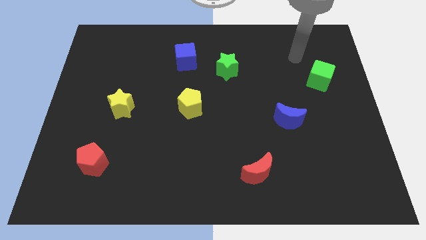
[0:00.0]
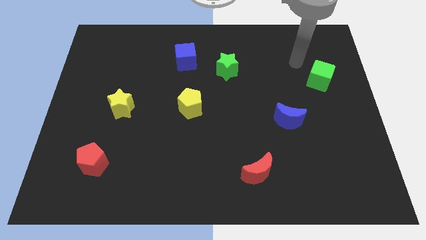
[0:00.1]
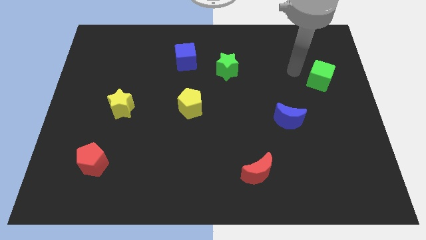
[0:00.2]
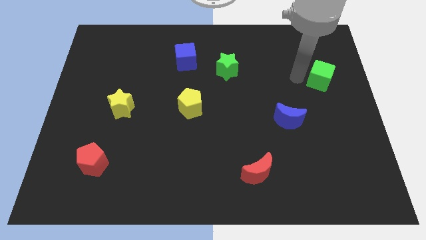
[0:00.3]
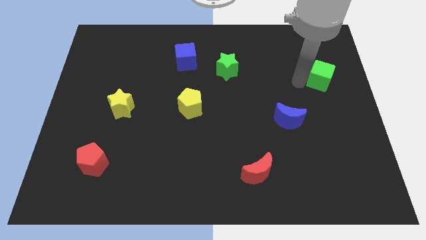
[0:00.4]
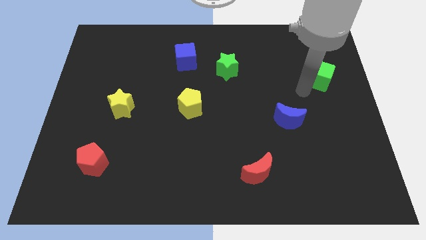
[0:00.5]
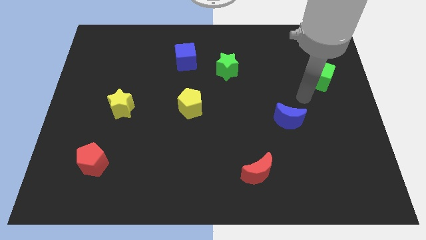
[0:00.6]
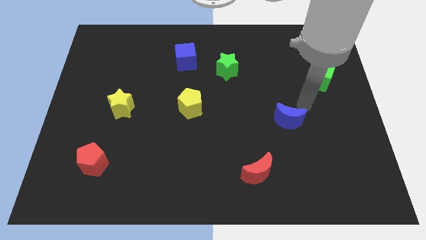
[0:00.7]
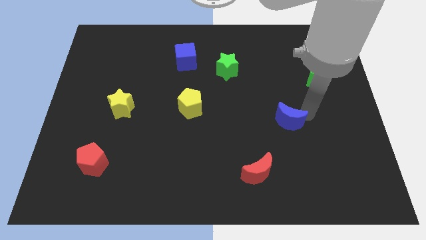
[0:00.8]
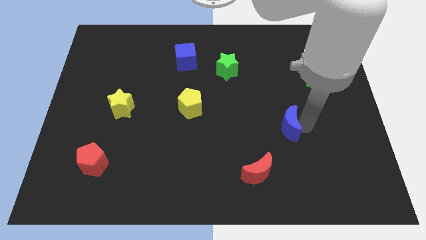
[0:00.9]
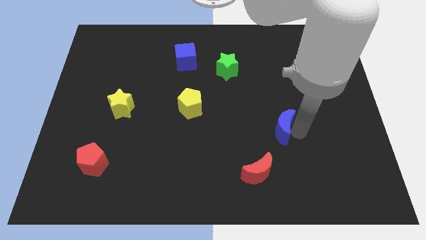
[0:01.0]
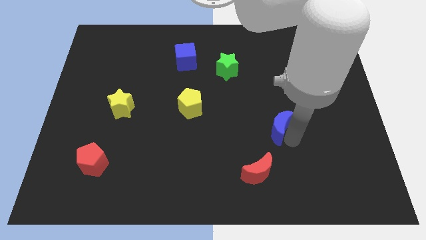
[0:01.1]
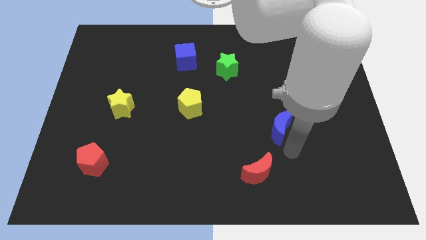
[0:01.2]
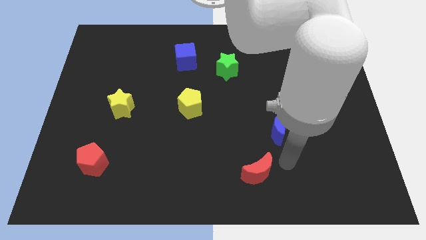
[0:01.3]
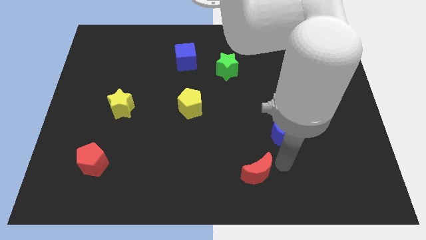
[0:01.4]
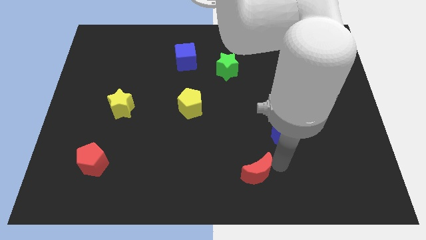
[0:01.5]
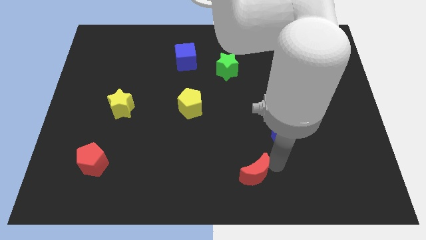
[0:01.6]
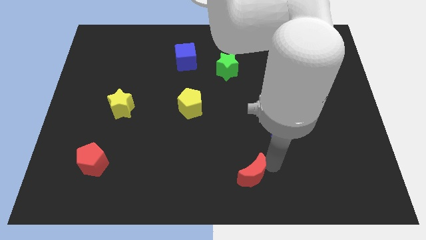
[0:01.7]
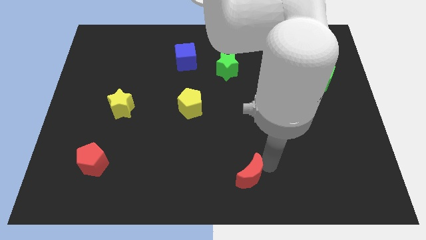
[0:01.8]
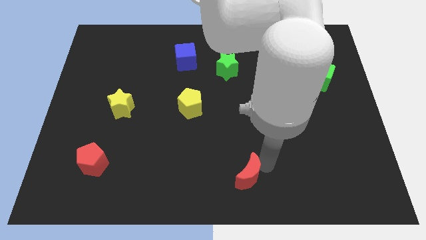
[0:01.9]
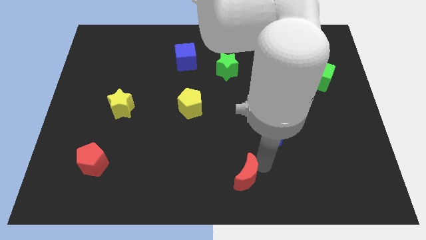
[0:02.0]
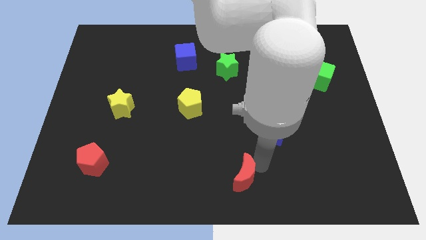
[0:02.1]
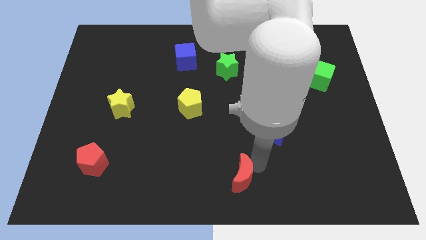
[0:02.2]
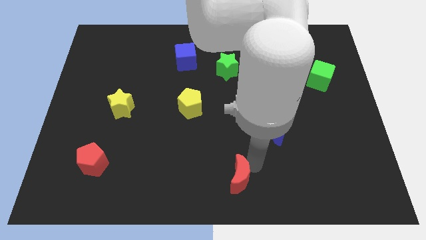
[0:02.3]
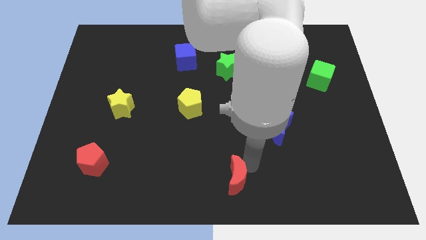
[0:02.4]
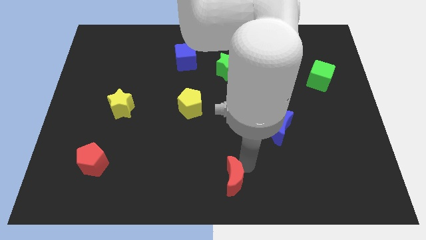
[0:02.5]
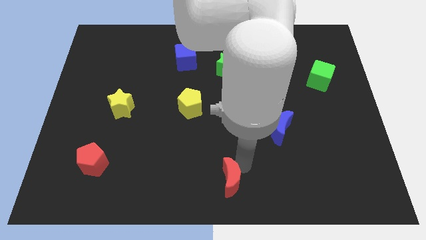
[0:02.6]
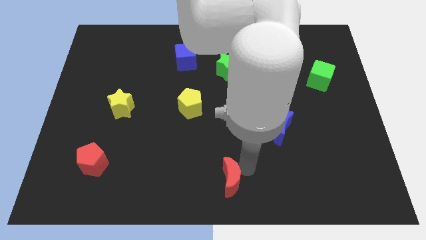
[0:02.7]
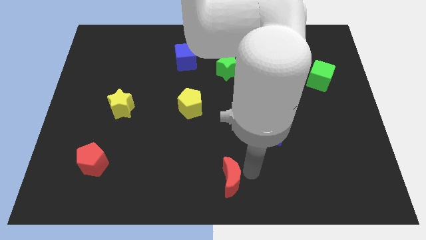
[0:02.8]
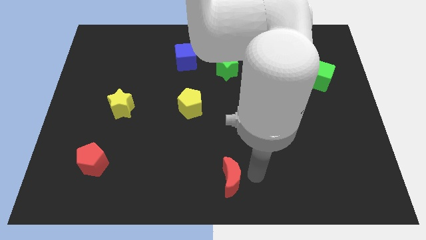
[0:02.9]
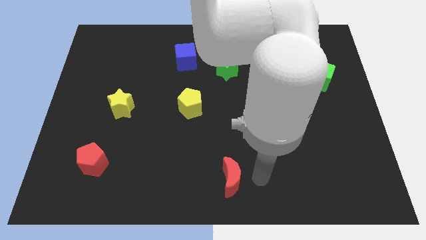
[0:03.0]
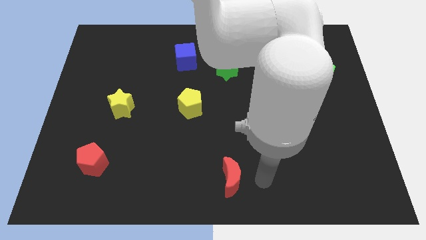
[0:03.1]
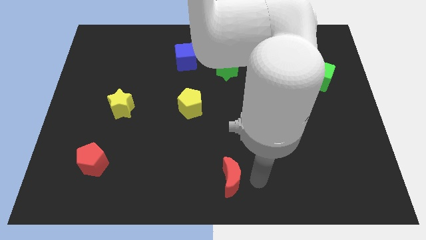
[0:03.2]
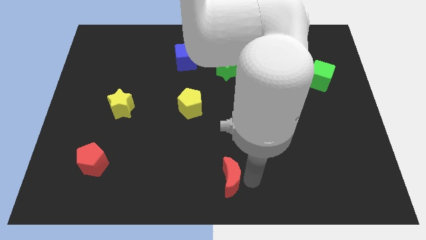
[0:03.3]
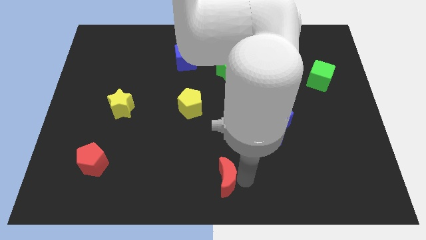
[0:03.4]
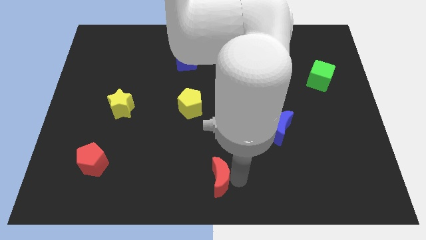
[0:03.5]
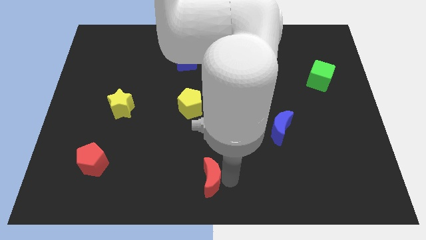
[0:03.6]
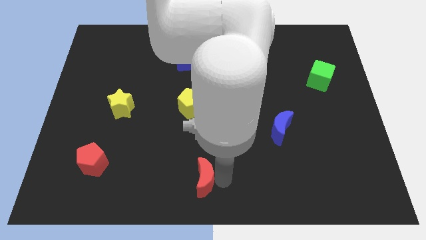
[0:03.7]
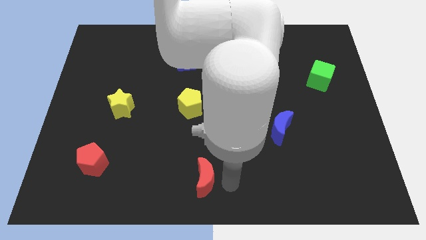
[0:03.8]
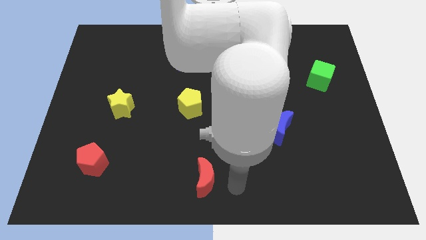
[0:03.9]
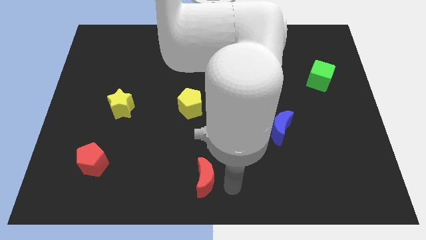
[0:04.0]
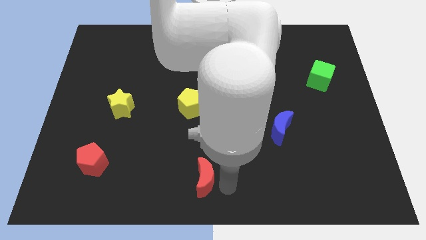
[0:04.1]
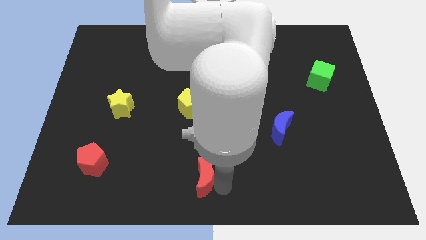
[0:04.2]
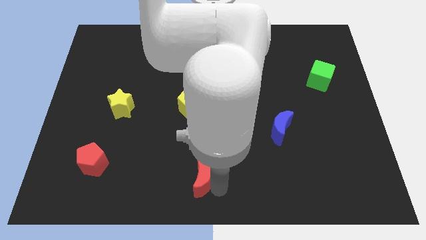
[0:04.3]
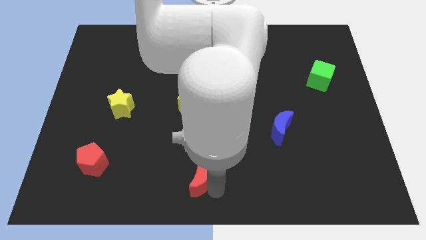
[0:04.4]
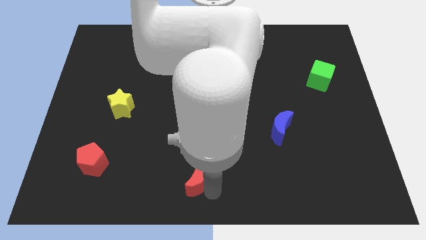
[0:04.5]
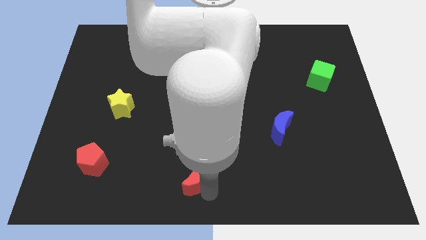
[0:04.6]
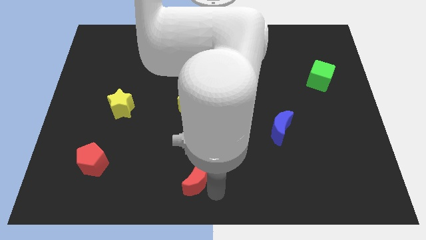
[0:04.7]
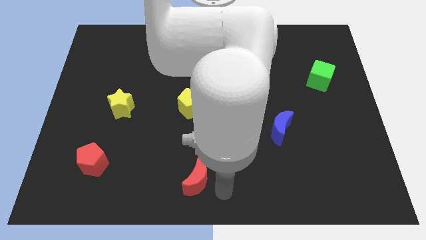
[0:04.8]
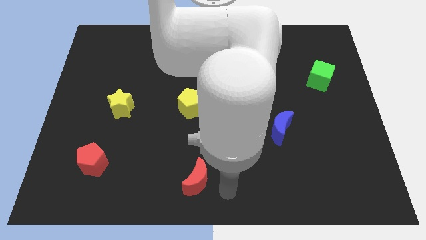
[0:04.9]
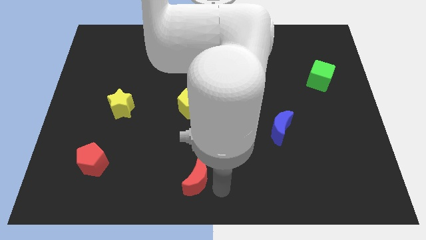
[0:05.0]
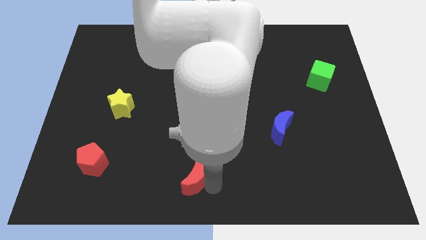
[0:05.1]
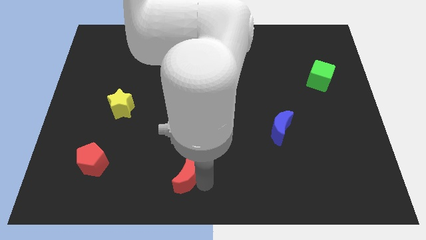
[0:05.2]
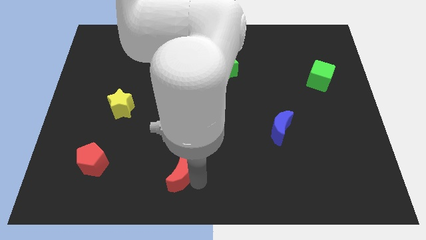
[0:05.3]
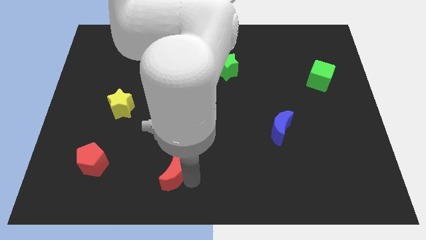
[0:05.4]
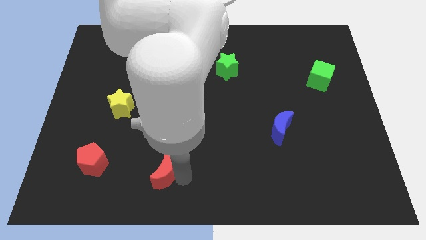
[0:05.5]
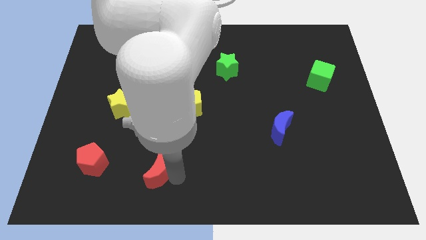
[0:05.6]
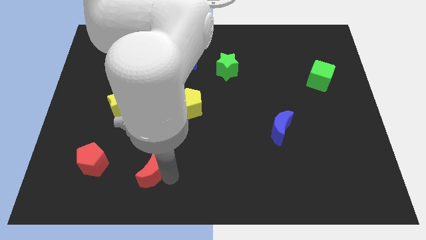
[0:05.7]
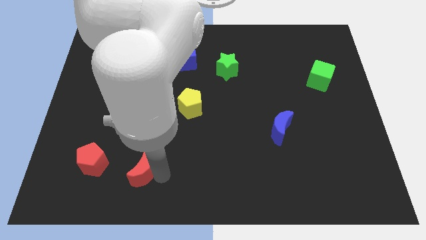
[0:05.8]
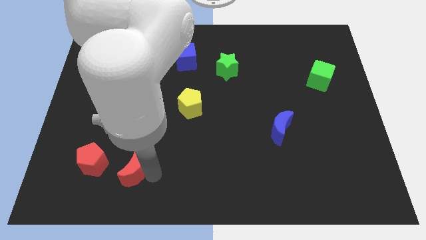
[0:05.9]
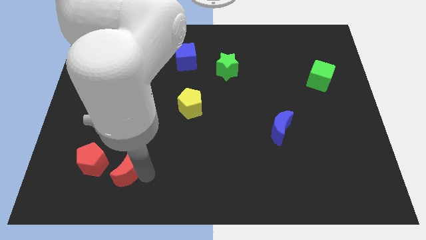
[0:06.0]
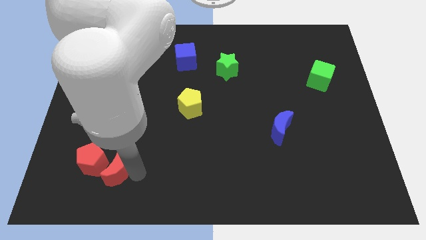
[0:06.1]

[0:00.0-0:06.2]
slide the red moon towards the red pentagon

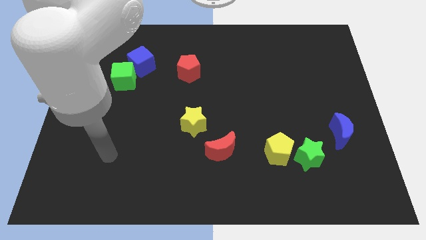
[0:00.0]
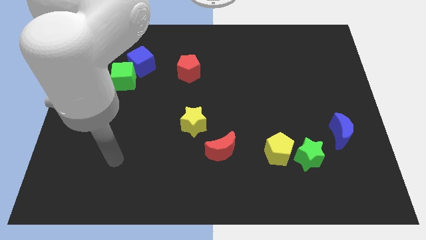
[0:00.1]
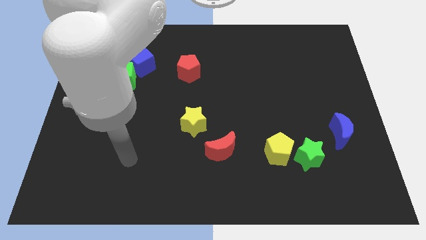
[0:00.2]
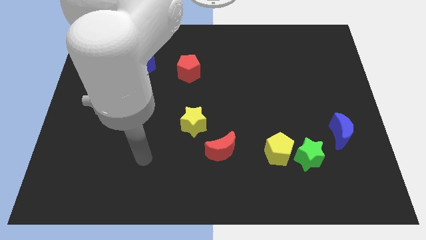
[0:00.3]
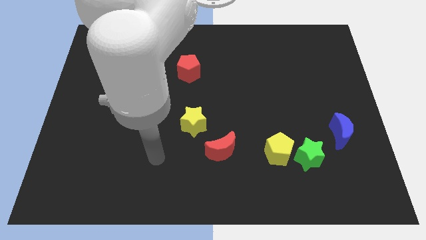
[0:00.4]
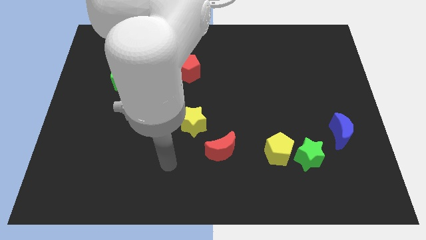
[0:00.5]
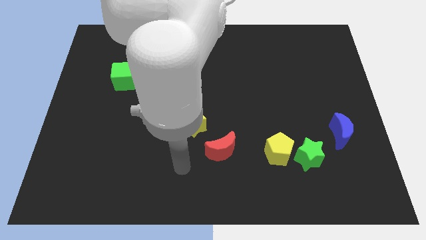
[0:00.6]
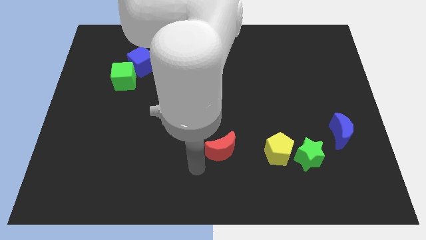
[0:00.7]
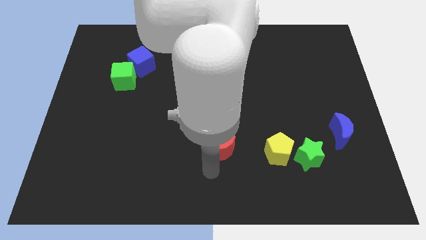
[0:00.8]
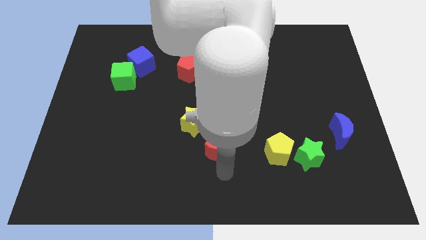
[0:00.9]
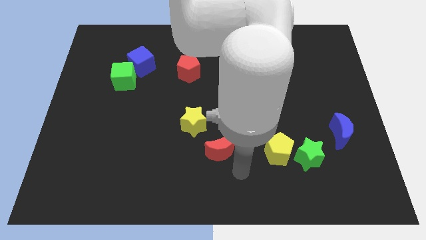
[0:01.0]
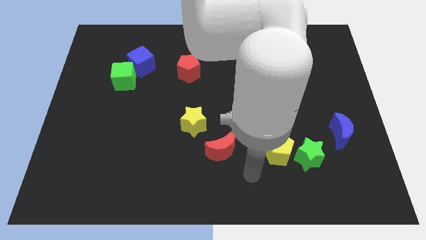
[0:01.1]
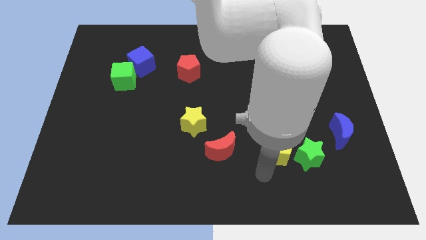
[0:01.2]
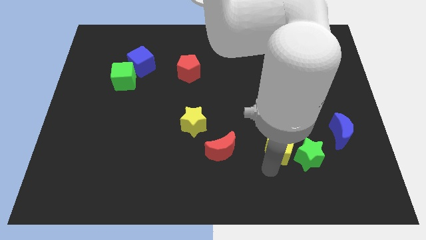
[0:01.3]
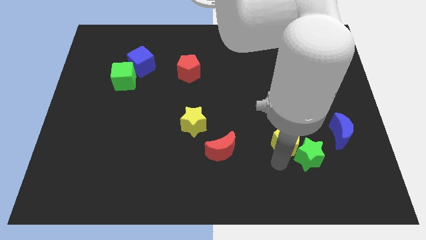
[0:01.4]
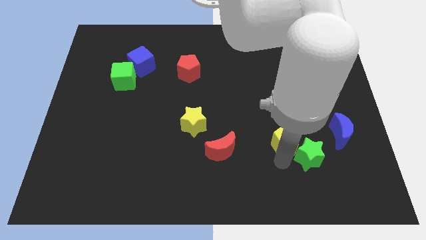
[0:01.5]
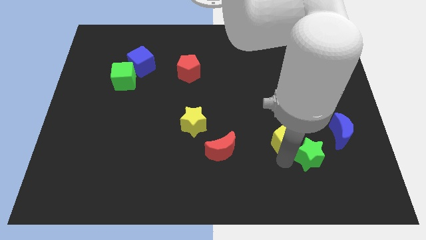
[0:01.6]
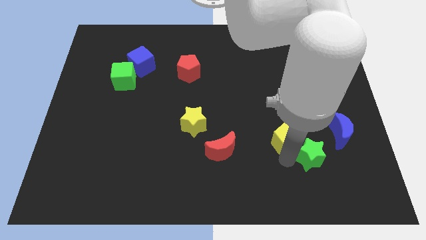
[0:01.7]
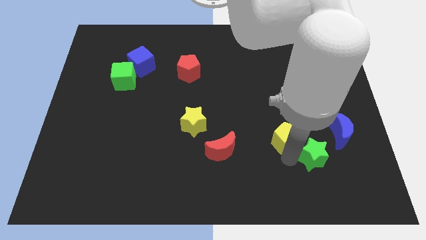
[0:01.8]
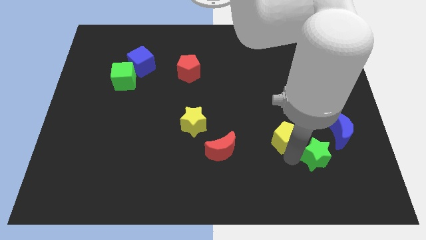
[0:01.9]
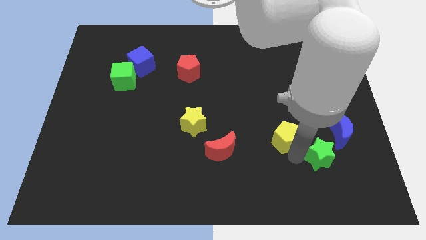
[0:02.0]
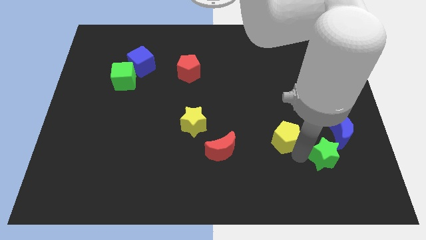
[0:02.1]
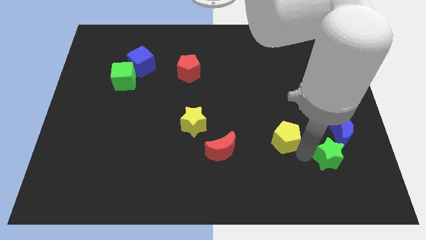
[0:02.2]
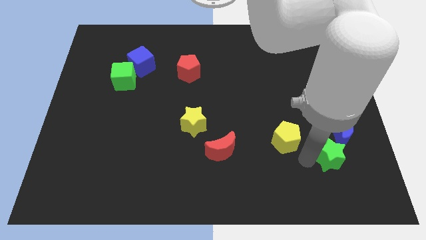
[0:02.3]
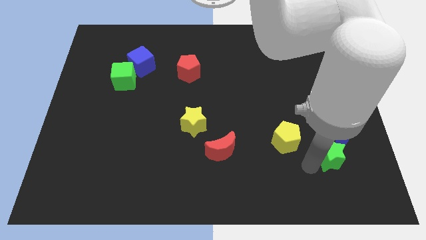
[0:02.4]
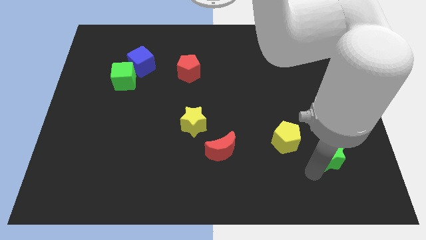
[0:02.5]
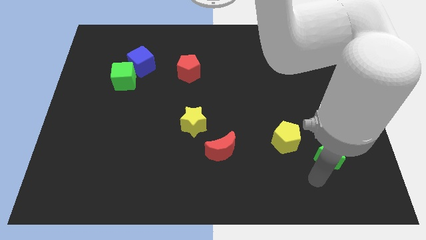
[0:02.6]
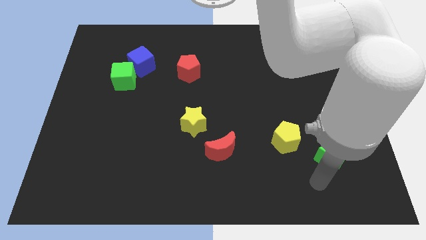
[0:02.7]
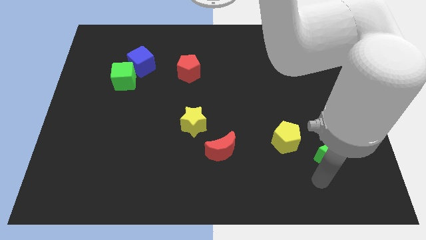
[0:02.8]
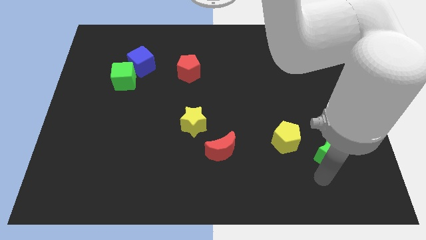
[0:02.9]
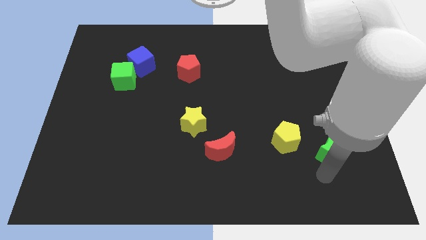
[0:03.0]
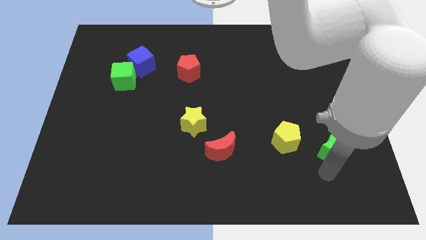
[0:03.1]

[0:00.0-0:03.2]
push the green star next to the blue moon
